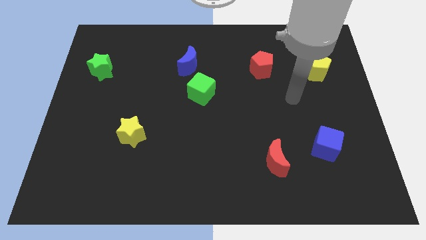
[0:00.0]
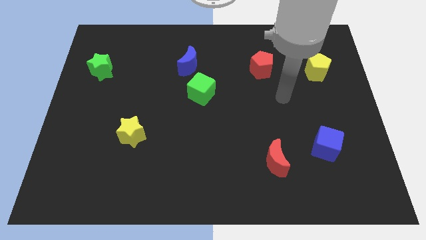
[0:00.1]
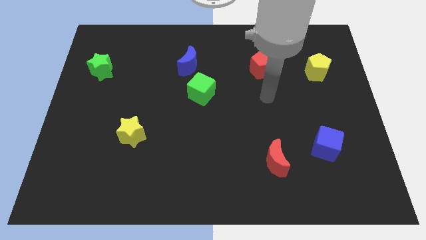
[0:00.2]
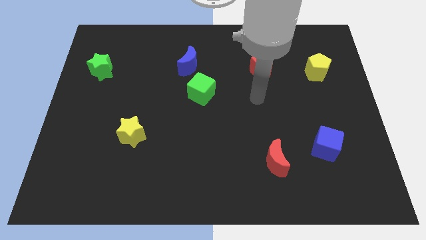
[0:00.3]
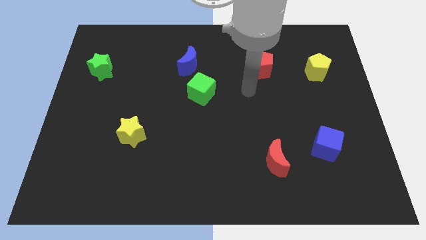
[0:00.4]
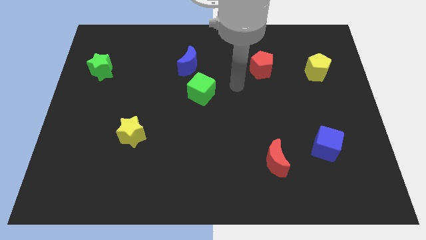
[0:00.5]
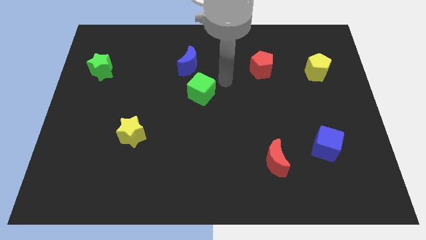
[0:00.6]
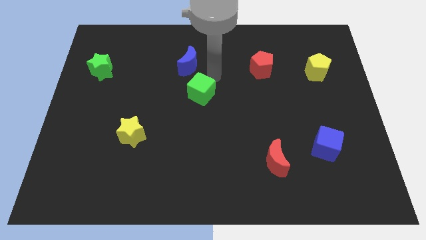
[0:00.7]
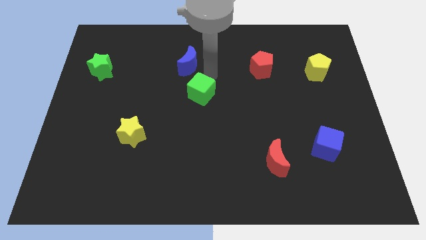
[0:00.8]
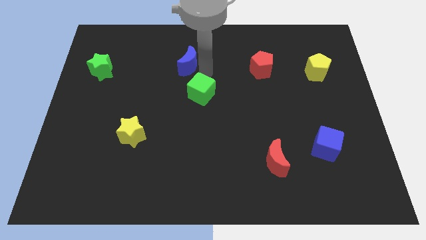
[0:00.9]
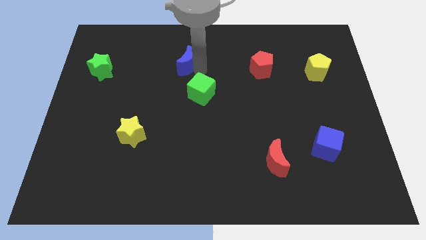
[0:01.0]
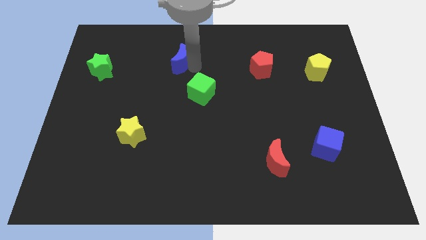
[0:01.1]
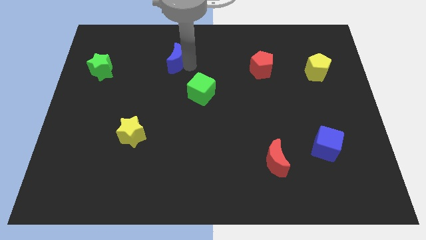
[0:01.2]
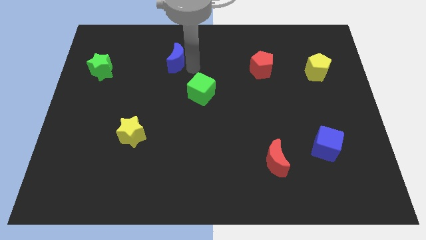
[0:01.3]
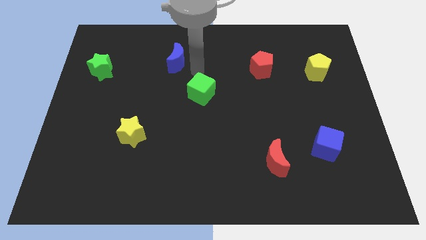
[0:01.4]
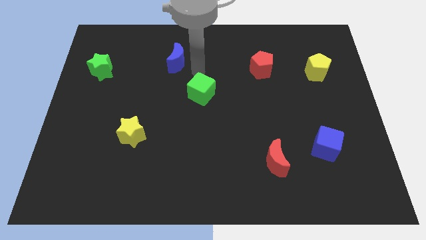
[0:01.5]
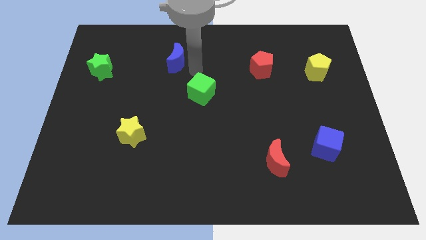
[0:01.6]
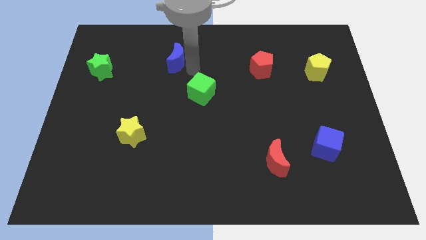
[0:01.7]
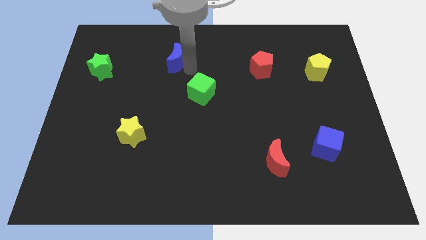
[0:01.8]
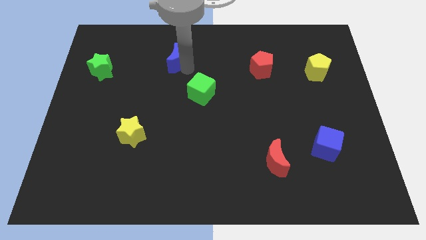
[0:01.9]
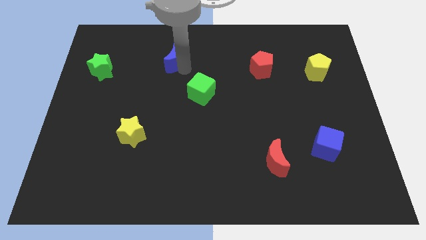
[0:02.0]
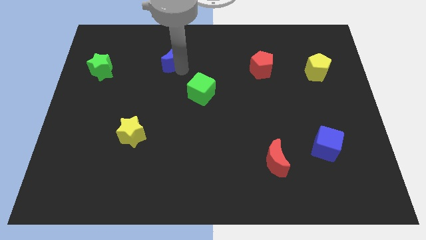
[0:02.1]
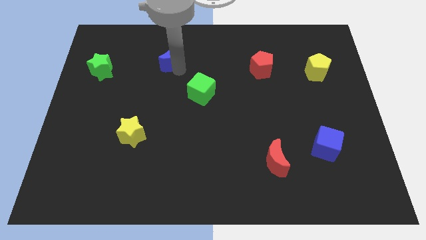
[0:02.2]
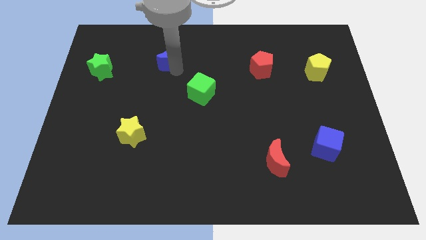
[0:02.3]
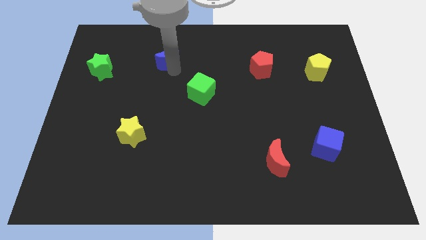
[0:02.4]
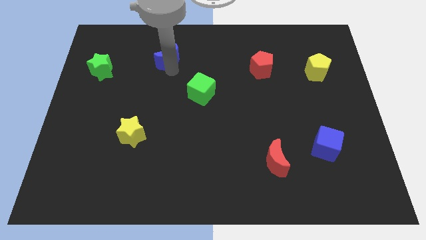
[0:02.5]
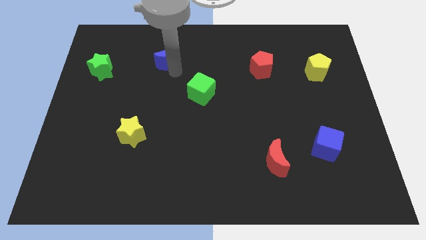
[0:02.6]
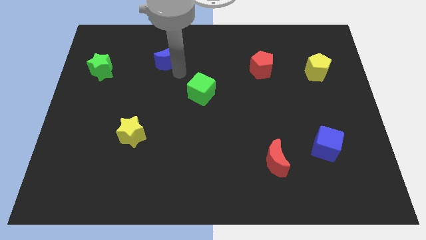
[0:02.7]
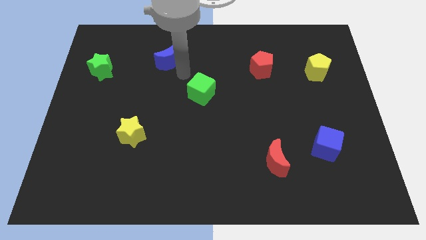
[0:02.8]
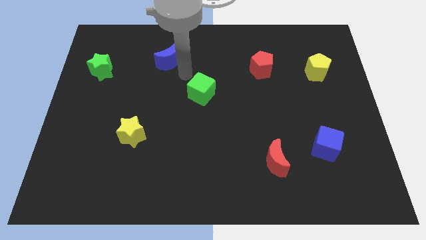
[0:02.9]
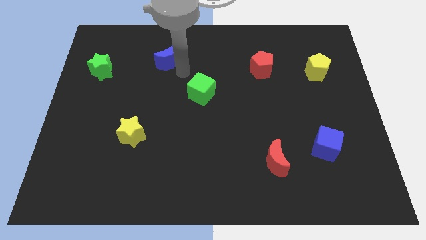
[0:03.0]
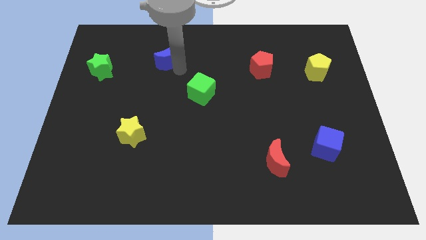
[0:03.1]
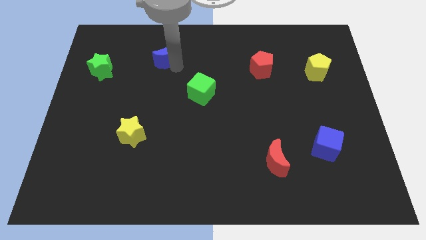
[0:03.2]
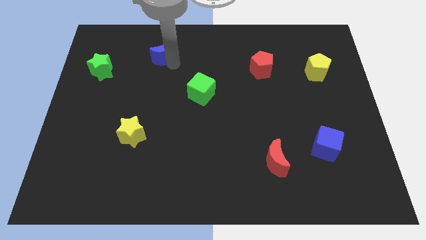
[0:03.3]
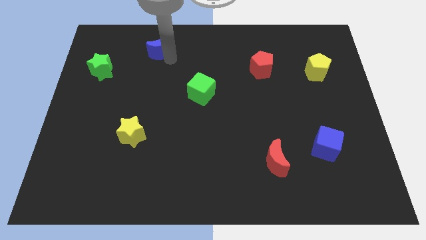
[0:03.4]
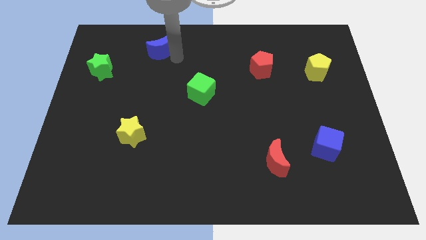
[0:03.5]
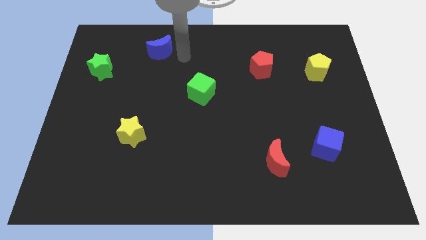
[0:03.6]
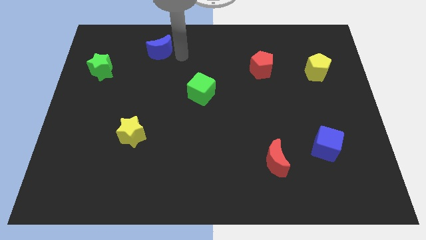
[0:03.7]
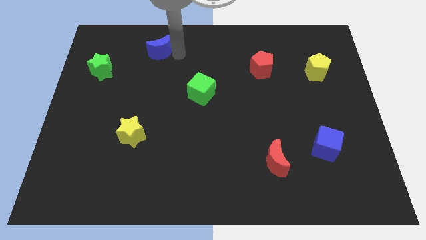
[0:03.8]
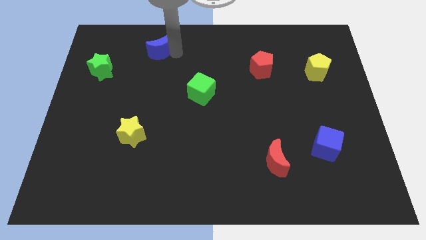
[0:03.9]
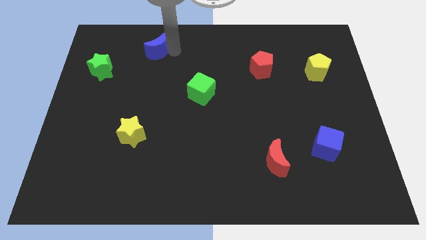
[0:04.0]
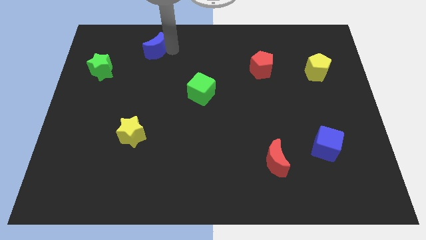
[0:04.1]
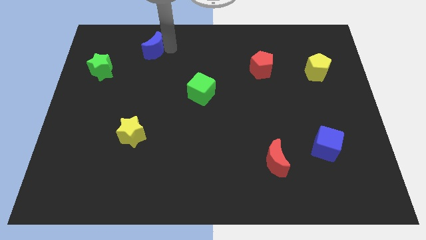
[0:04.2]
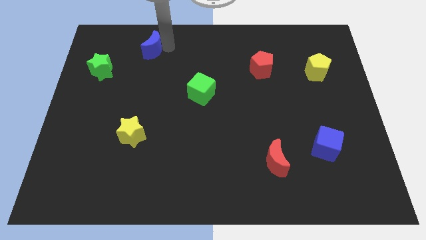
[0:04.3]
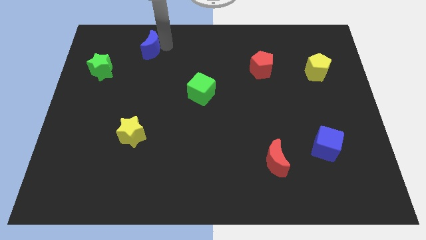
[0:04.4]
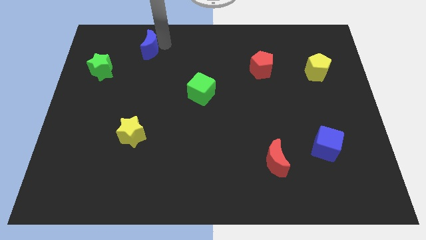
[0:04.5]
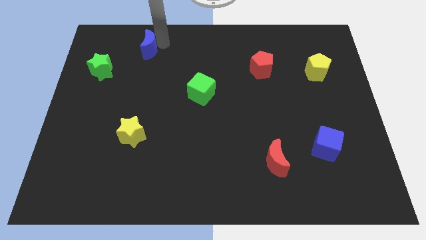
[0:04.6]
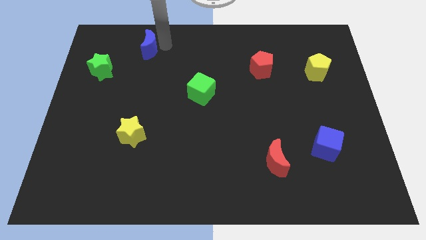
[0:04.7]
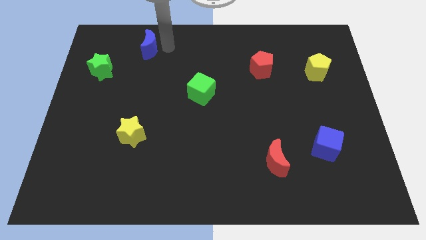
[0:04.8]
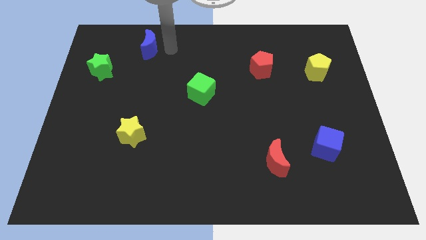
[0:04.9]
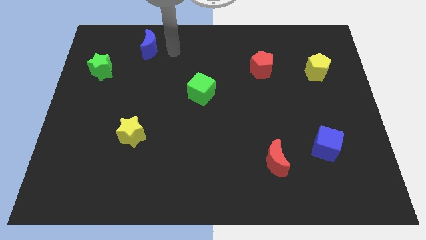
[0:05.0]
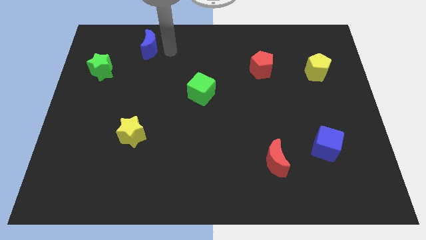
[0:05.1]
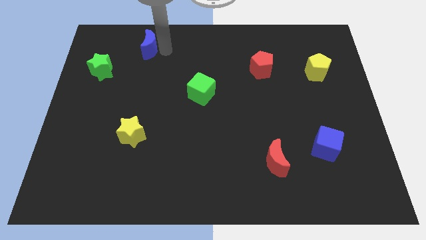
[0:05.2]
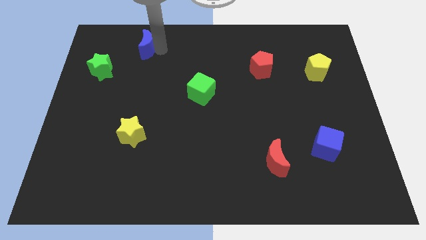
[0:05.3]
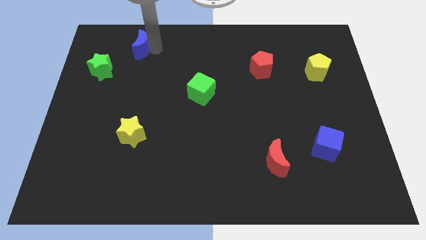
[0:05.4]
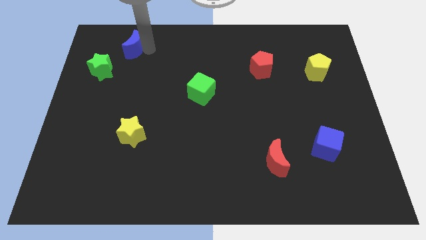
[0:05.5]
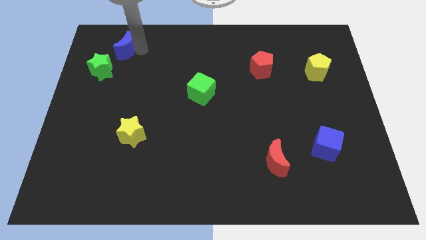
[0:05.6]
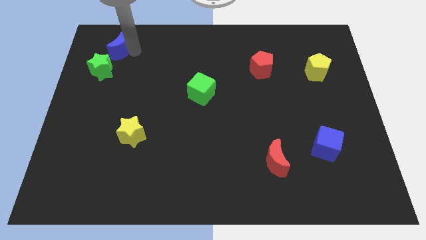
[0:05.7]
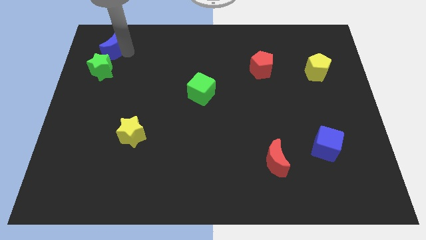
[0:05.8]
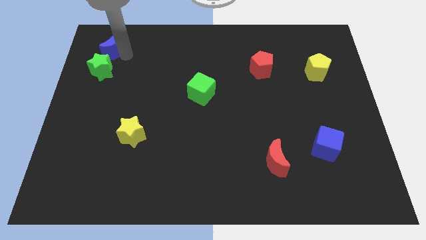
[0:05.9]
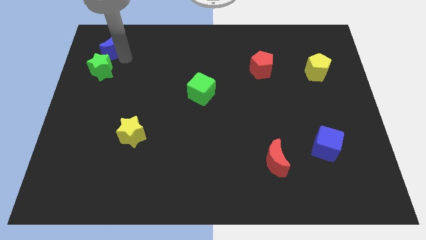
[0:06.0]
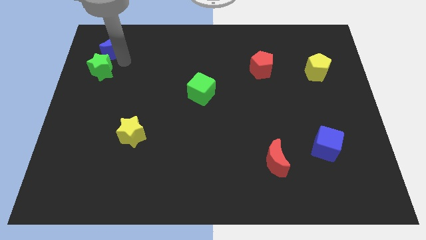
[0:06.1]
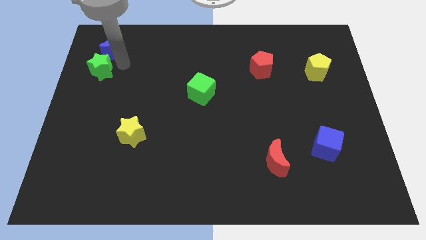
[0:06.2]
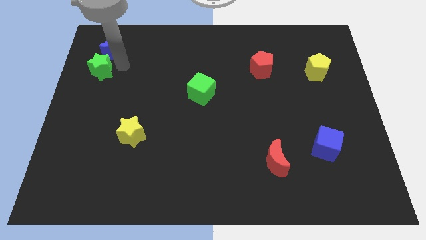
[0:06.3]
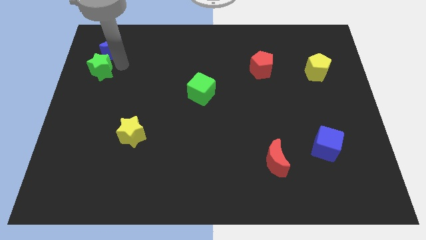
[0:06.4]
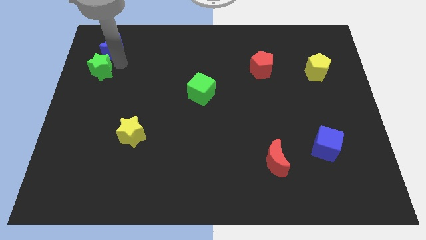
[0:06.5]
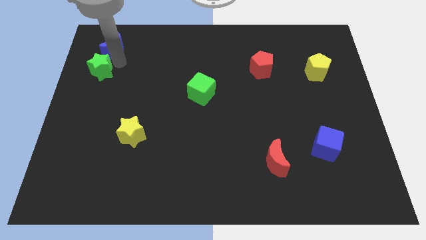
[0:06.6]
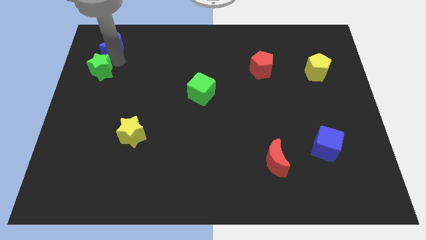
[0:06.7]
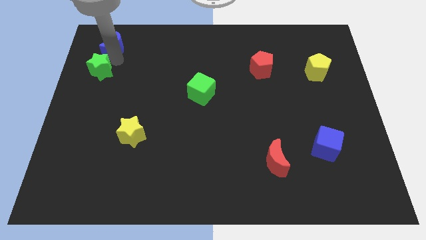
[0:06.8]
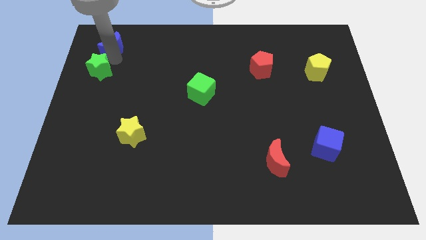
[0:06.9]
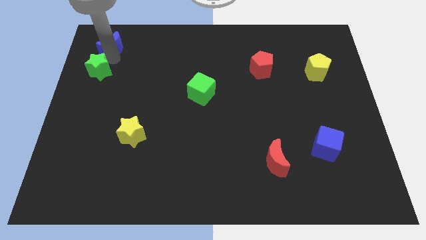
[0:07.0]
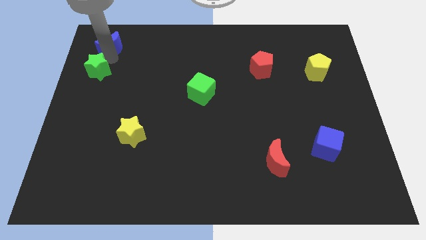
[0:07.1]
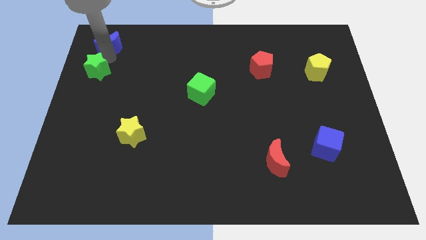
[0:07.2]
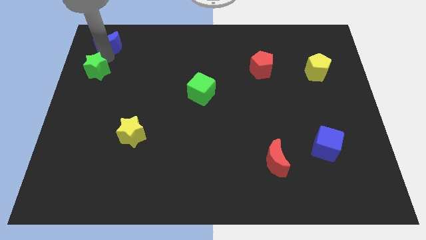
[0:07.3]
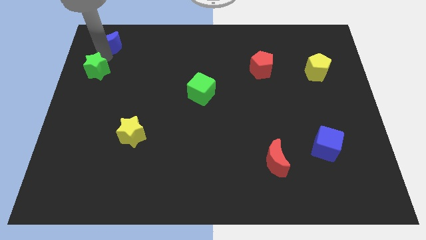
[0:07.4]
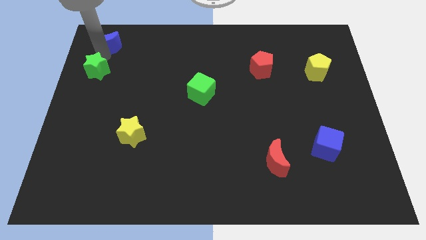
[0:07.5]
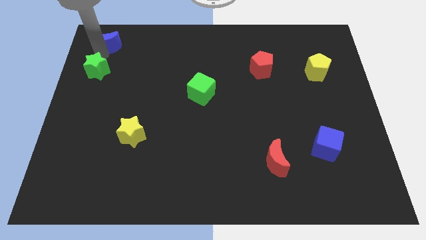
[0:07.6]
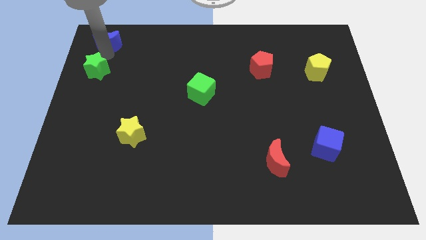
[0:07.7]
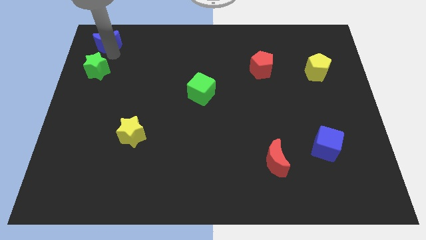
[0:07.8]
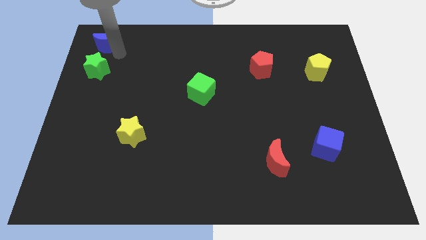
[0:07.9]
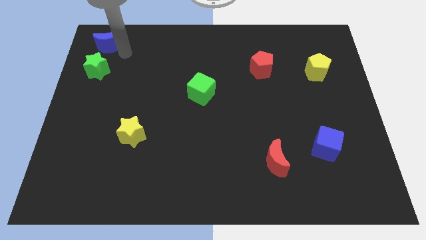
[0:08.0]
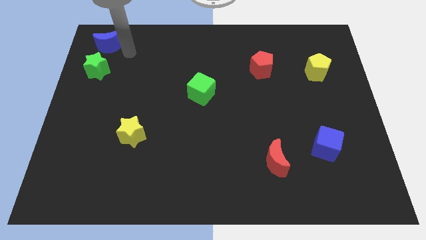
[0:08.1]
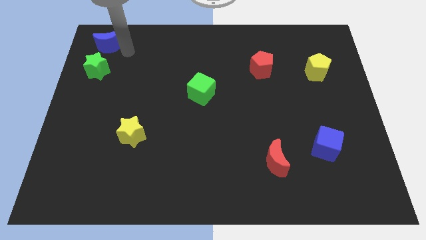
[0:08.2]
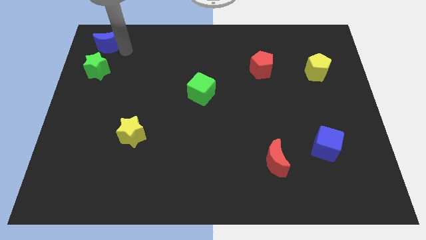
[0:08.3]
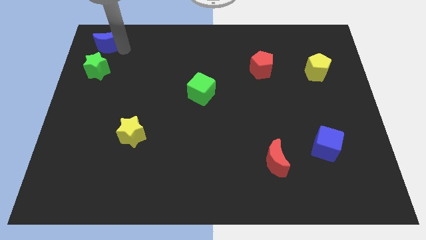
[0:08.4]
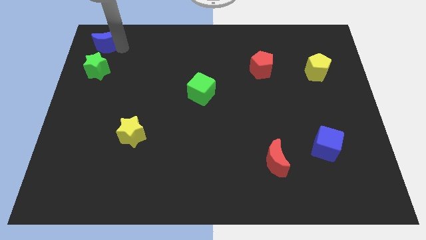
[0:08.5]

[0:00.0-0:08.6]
push the blue moon to the upper left corner
